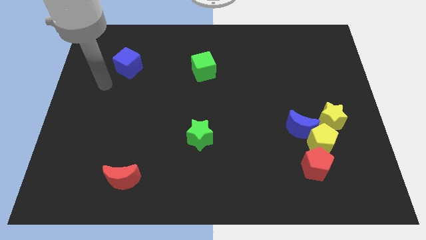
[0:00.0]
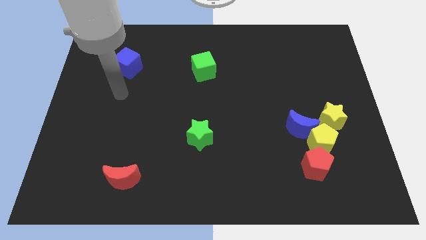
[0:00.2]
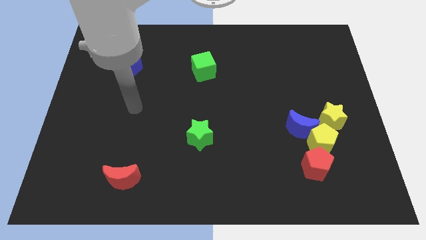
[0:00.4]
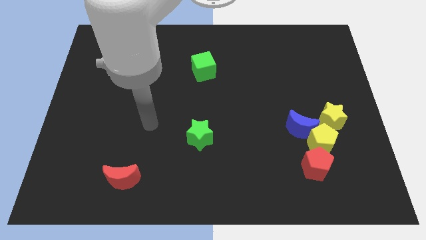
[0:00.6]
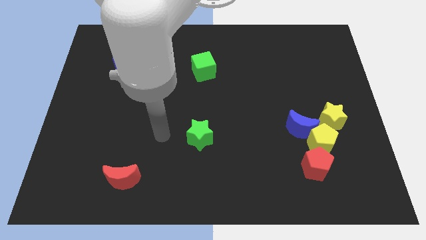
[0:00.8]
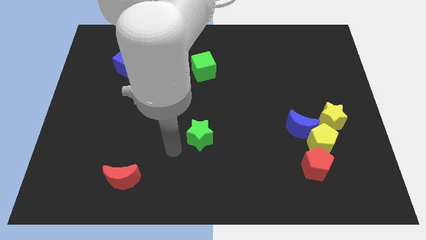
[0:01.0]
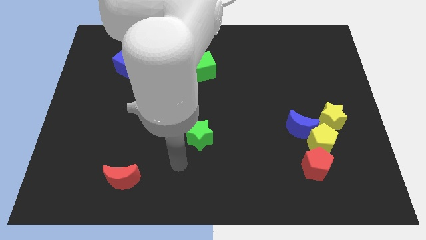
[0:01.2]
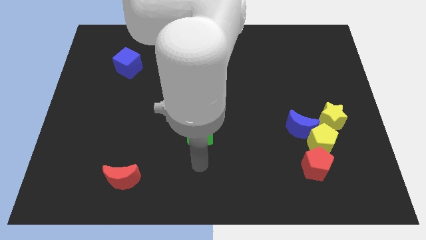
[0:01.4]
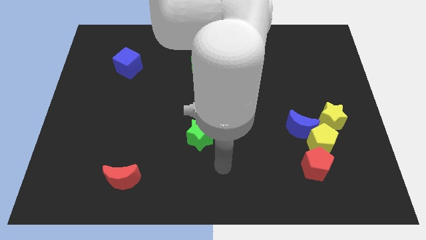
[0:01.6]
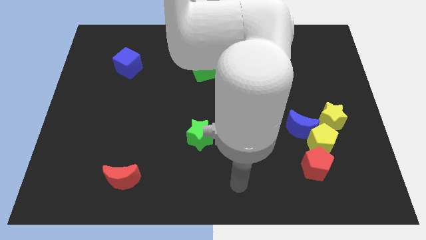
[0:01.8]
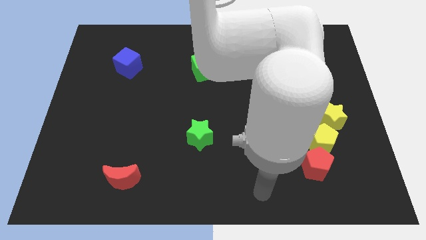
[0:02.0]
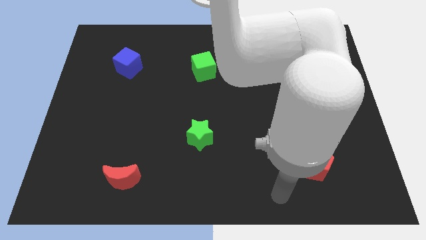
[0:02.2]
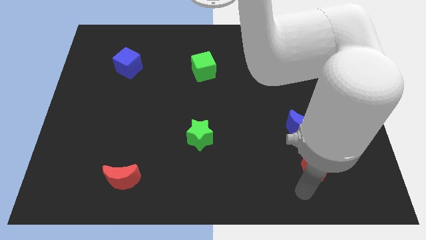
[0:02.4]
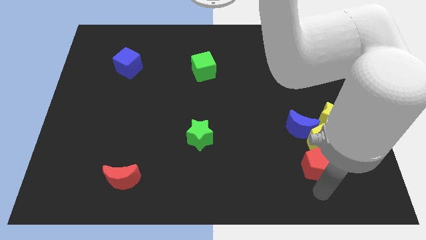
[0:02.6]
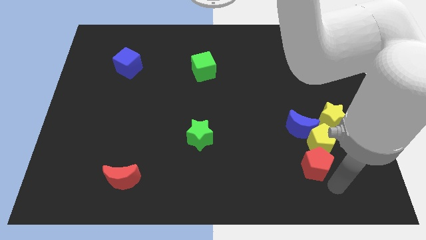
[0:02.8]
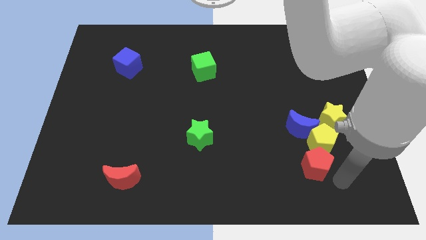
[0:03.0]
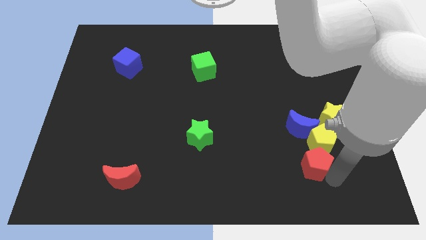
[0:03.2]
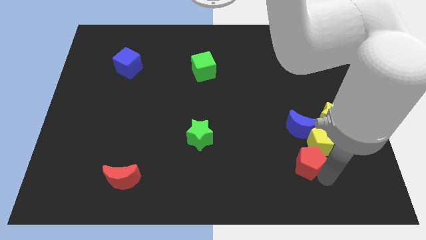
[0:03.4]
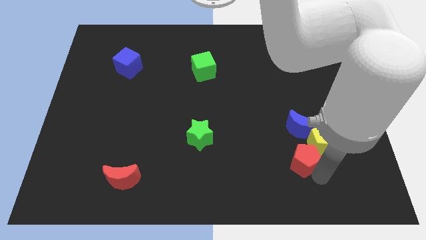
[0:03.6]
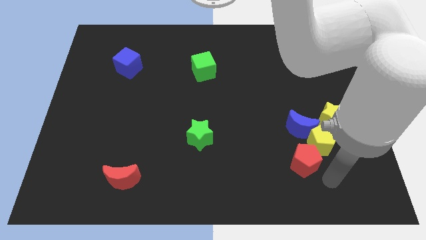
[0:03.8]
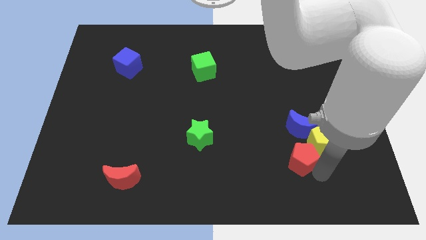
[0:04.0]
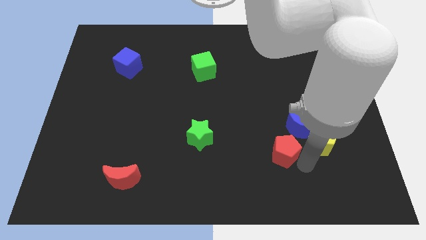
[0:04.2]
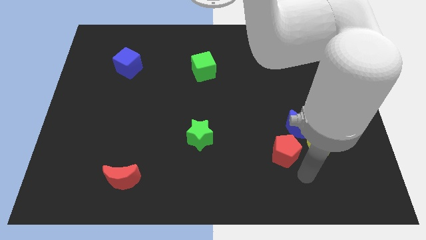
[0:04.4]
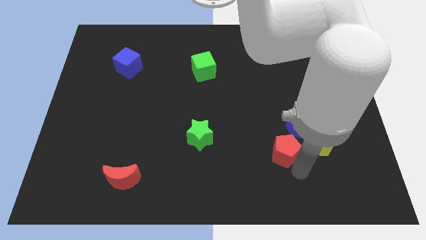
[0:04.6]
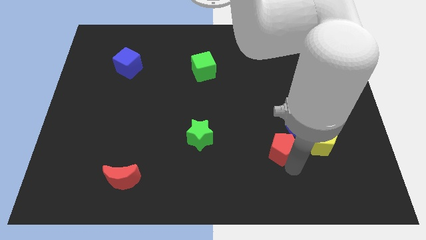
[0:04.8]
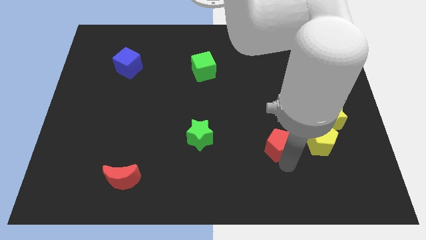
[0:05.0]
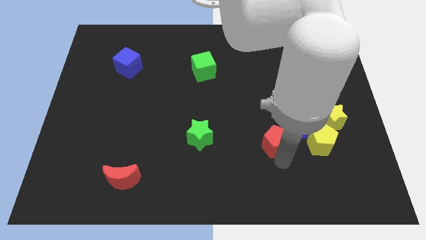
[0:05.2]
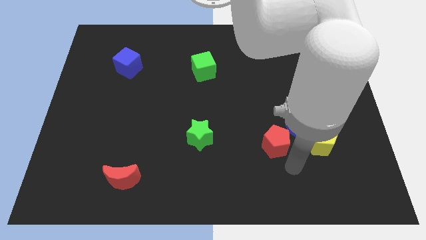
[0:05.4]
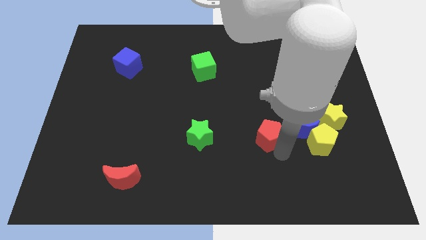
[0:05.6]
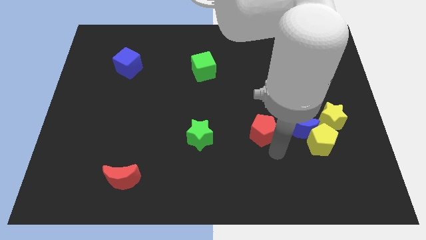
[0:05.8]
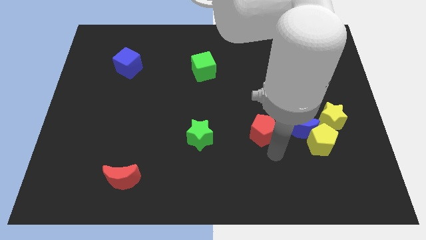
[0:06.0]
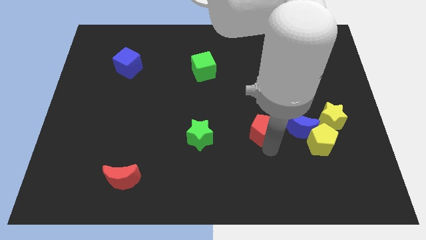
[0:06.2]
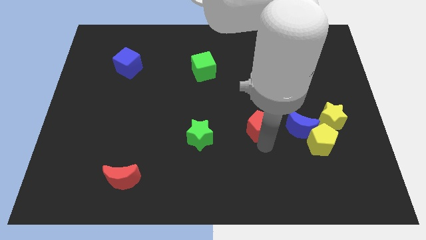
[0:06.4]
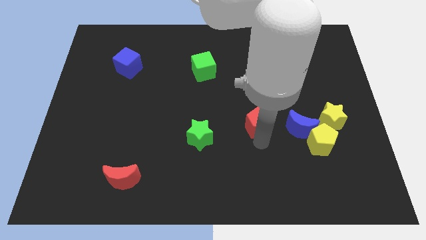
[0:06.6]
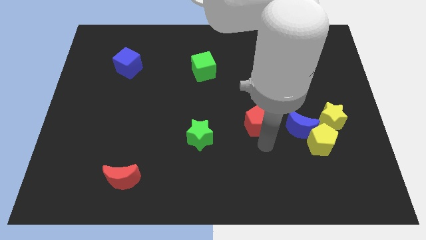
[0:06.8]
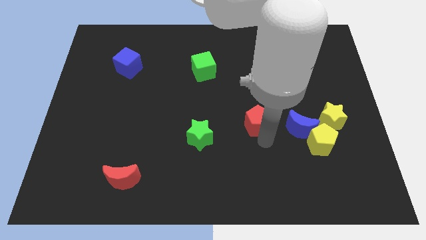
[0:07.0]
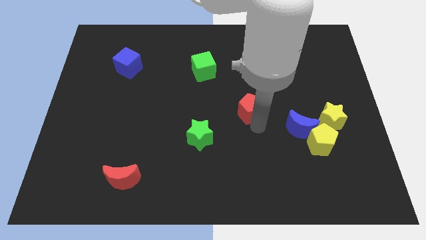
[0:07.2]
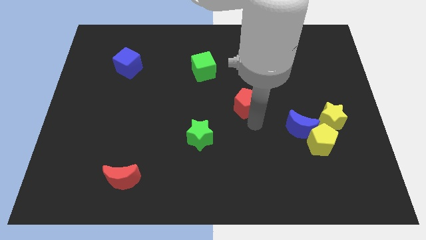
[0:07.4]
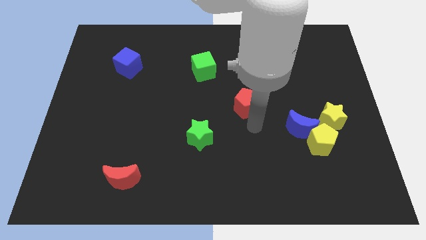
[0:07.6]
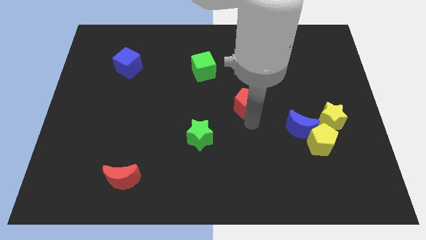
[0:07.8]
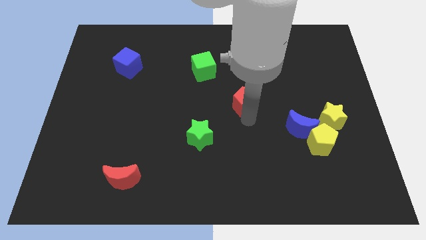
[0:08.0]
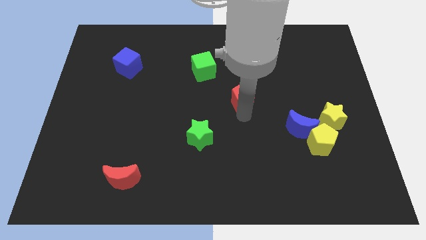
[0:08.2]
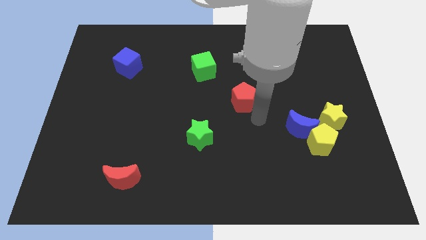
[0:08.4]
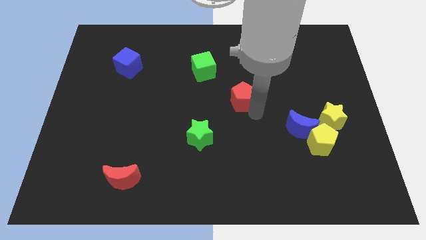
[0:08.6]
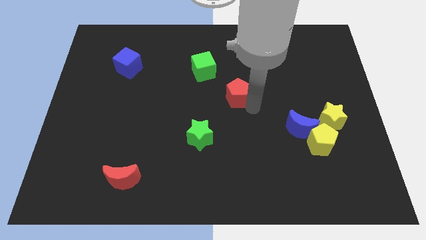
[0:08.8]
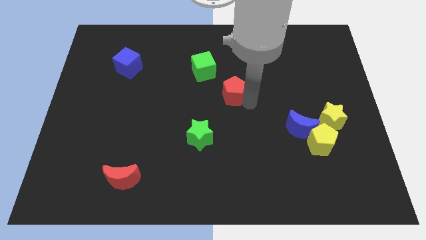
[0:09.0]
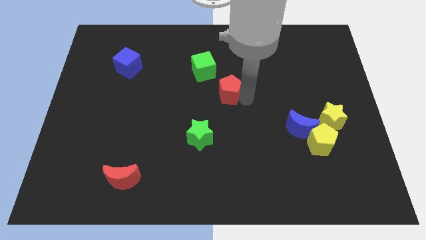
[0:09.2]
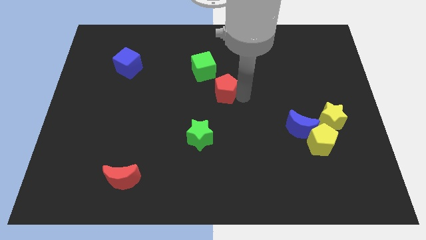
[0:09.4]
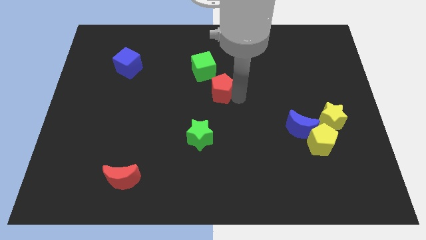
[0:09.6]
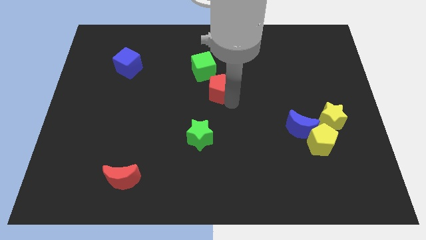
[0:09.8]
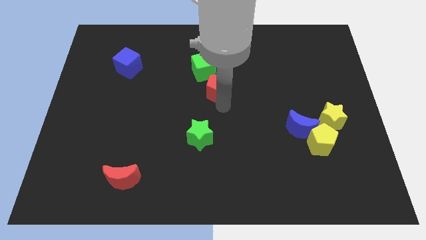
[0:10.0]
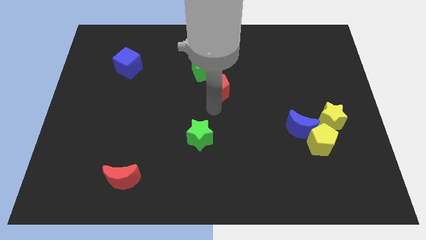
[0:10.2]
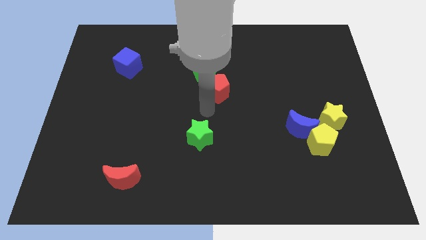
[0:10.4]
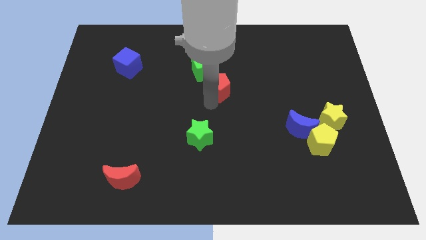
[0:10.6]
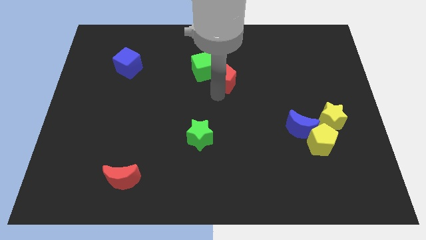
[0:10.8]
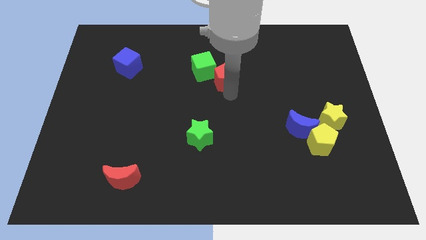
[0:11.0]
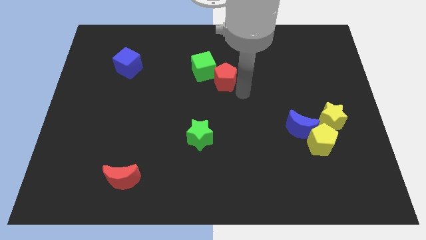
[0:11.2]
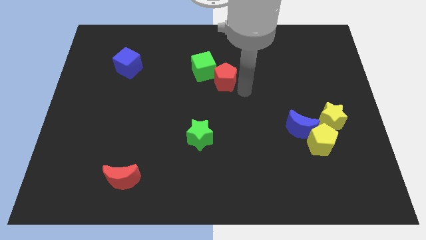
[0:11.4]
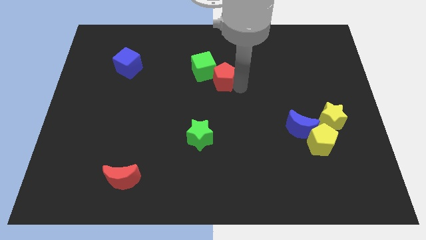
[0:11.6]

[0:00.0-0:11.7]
put the red pentagon next to the green cube
